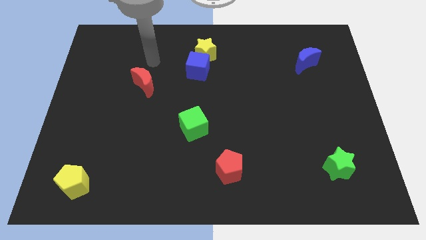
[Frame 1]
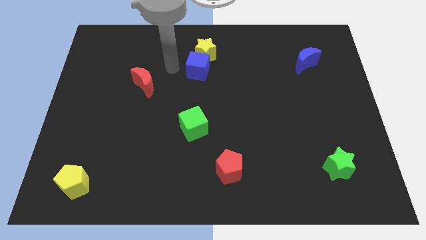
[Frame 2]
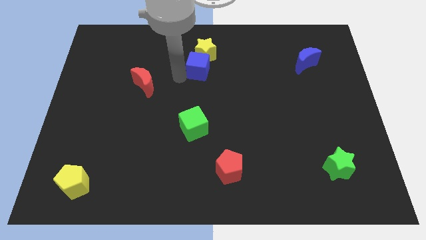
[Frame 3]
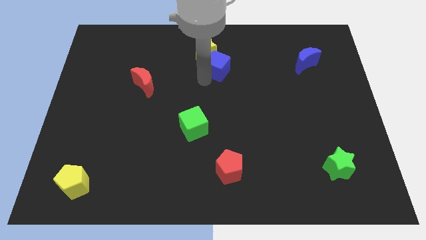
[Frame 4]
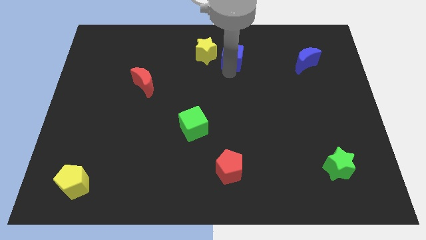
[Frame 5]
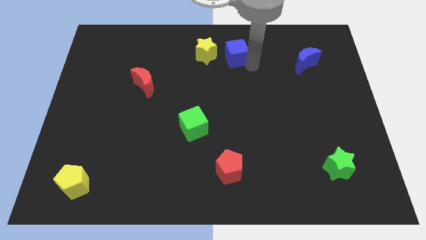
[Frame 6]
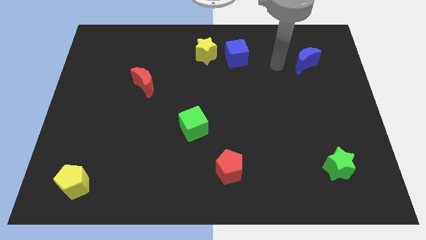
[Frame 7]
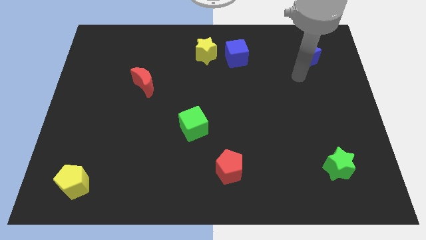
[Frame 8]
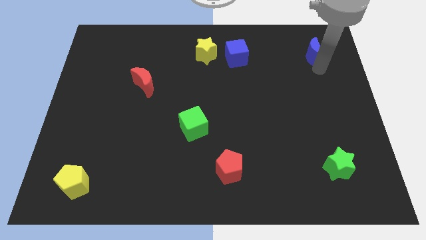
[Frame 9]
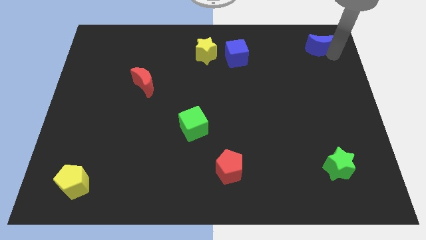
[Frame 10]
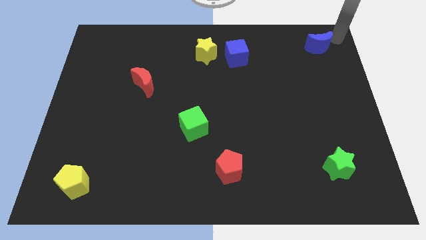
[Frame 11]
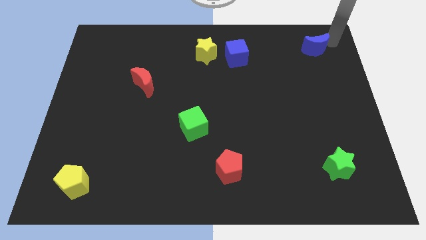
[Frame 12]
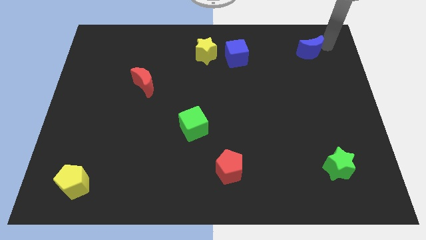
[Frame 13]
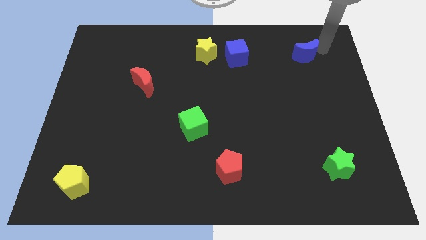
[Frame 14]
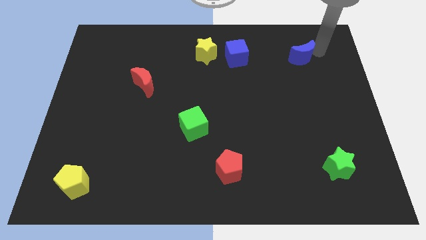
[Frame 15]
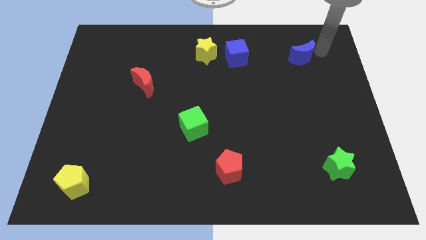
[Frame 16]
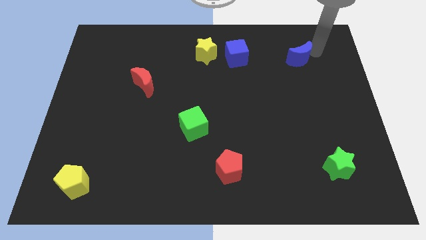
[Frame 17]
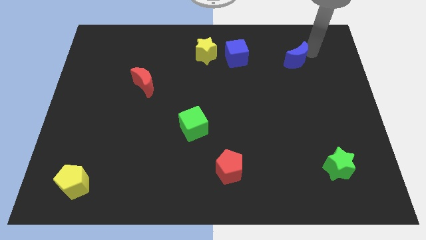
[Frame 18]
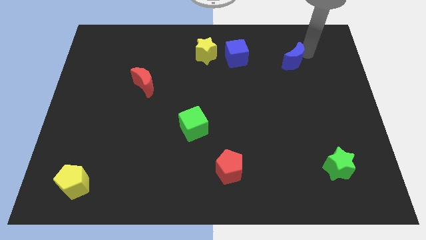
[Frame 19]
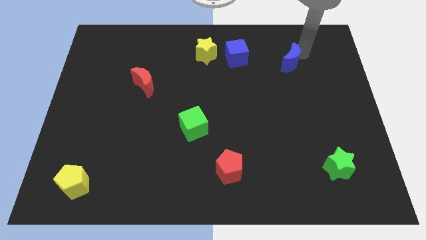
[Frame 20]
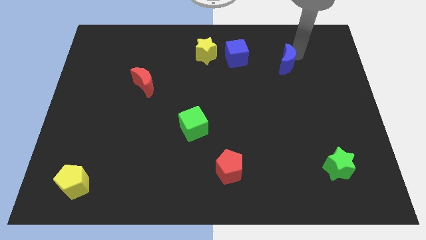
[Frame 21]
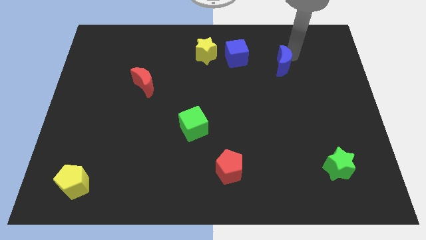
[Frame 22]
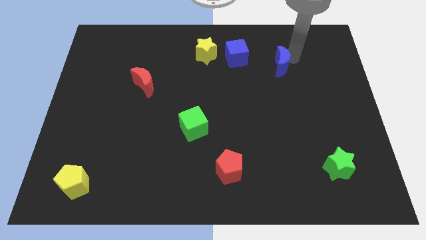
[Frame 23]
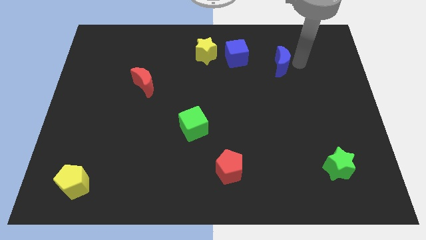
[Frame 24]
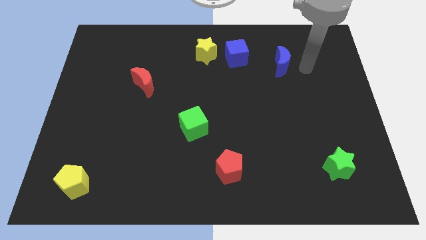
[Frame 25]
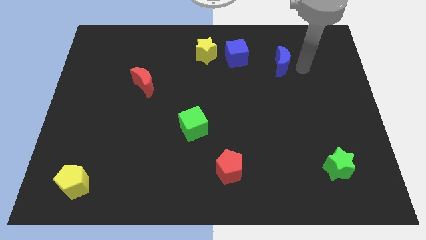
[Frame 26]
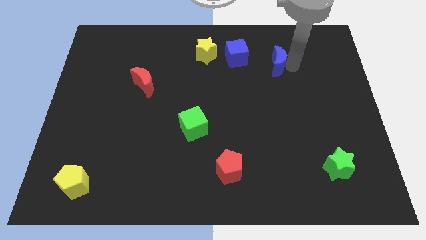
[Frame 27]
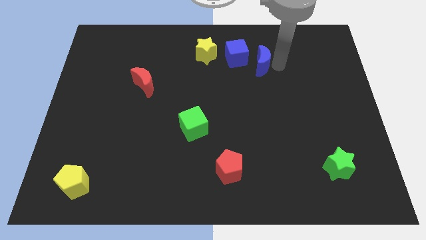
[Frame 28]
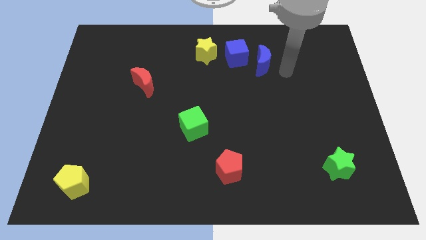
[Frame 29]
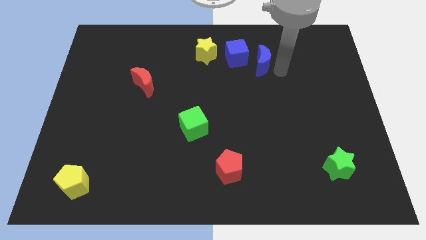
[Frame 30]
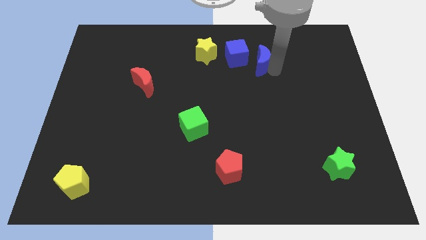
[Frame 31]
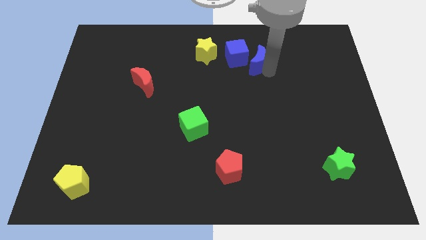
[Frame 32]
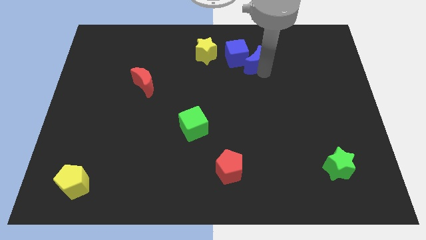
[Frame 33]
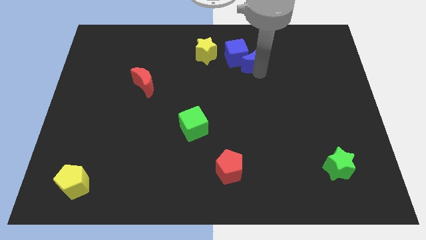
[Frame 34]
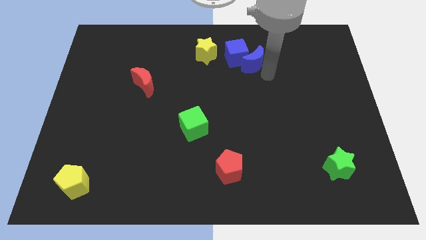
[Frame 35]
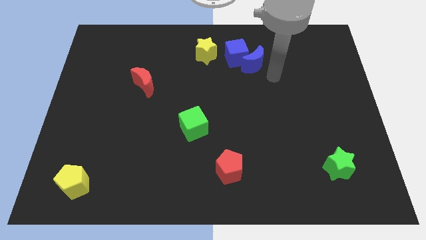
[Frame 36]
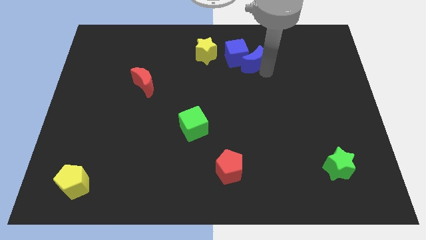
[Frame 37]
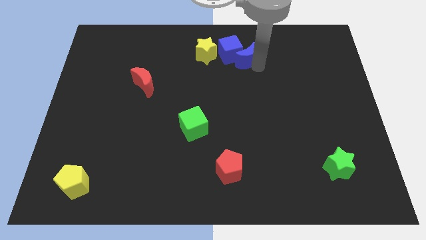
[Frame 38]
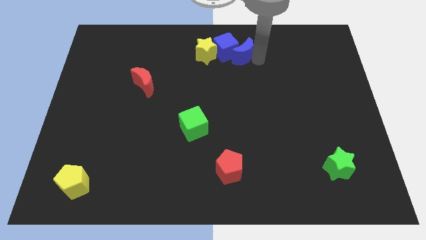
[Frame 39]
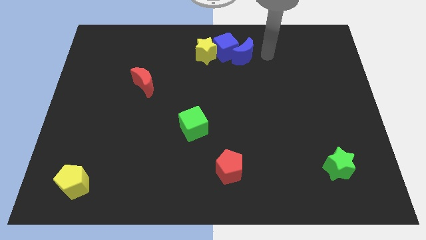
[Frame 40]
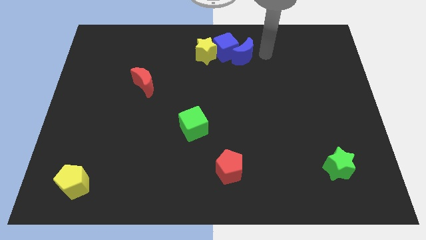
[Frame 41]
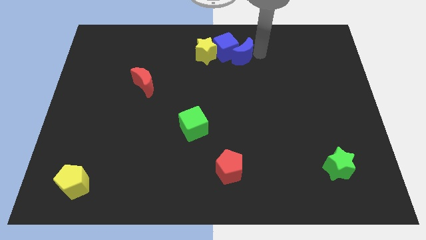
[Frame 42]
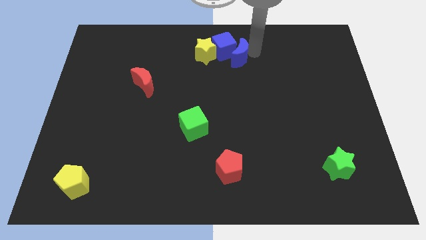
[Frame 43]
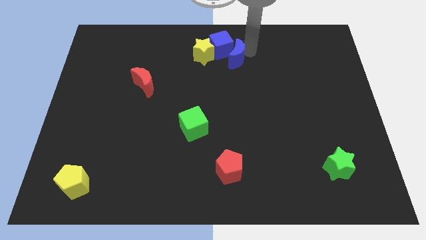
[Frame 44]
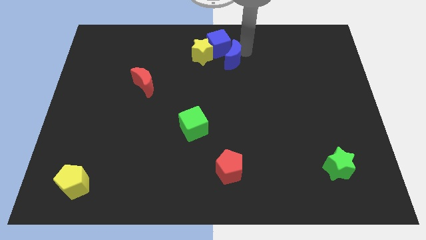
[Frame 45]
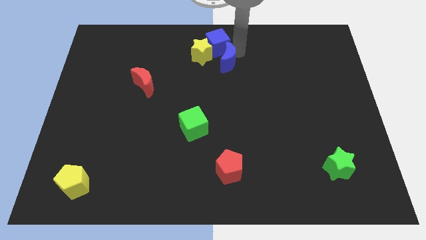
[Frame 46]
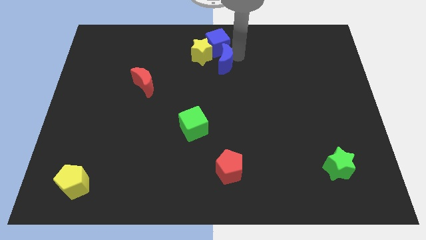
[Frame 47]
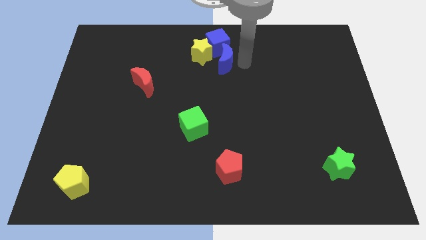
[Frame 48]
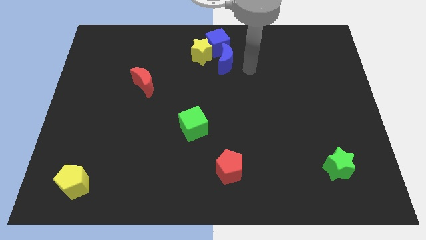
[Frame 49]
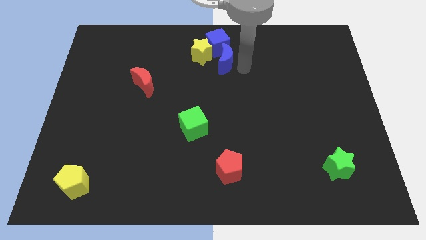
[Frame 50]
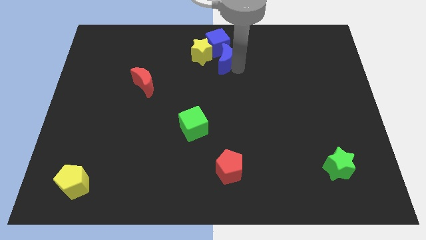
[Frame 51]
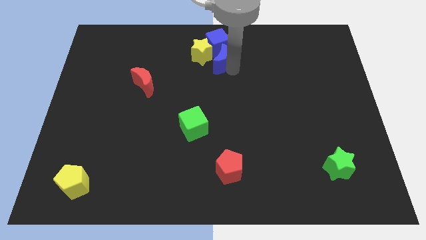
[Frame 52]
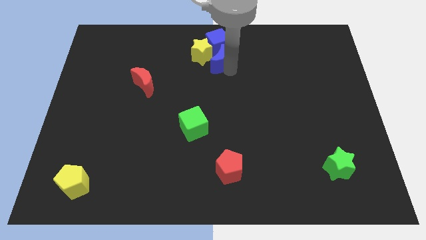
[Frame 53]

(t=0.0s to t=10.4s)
slide the blue moon to the yellow star

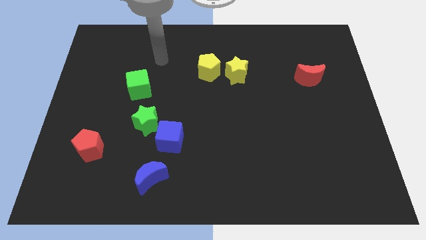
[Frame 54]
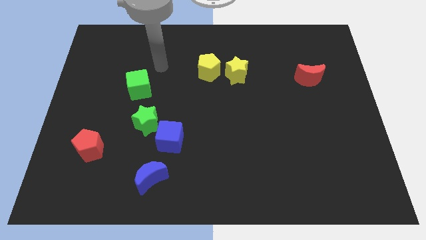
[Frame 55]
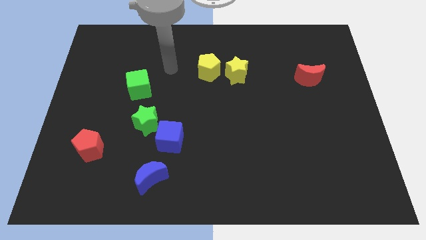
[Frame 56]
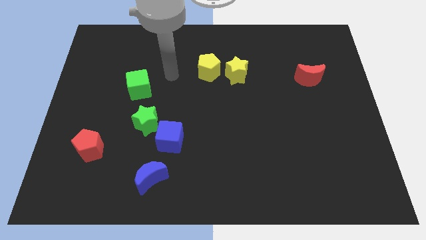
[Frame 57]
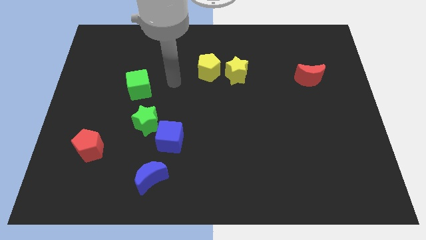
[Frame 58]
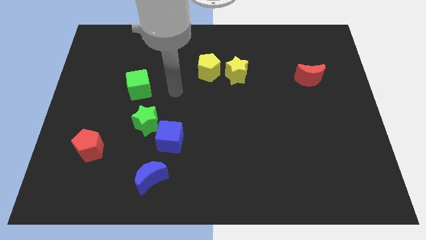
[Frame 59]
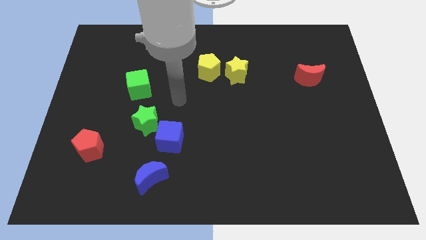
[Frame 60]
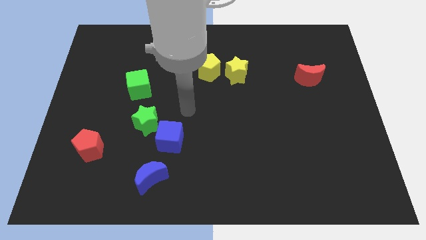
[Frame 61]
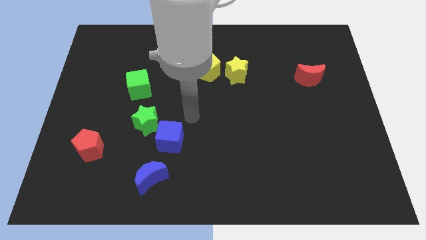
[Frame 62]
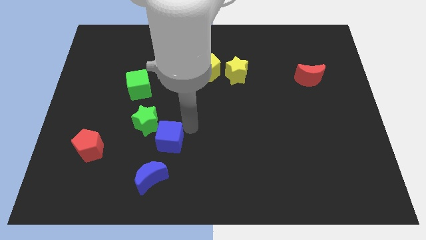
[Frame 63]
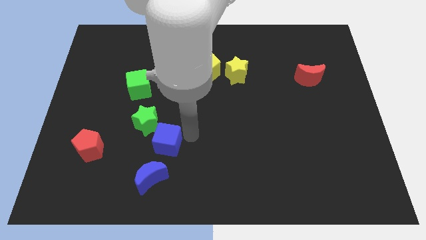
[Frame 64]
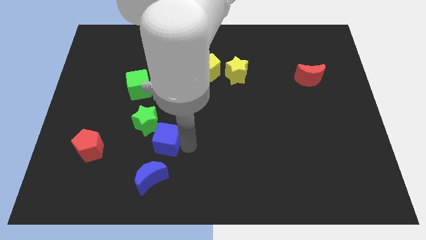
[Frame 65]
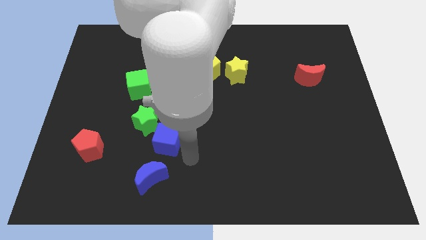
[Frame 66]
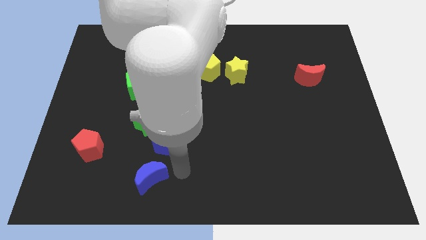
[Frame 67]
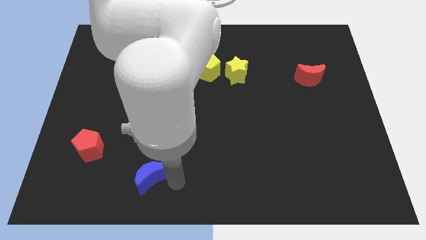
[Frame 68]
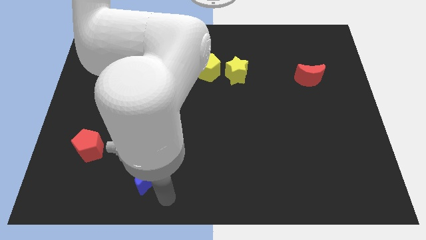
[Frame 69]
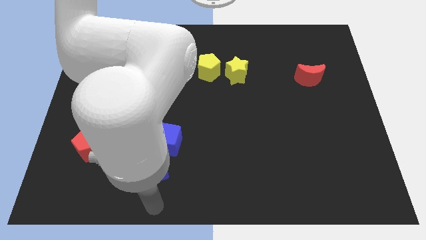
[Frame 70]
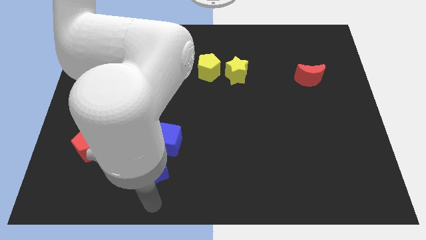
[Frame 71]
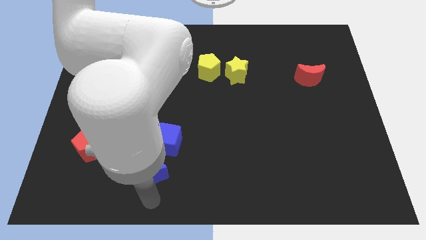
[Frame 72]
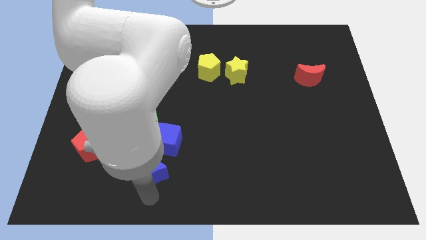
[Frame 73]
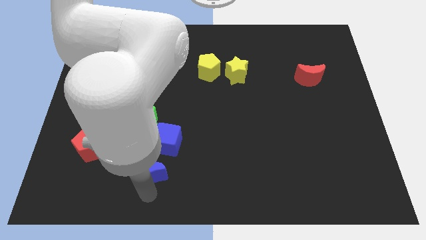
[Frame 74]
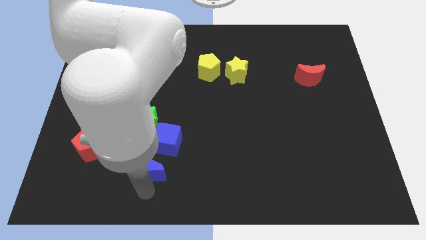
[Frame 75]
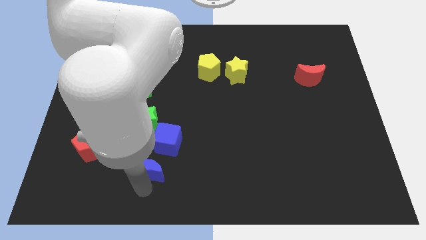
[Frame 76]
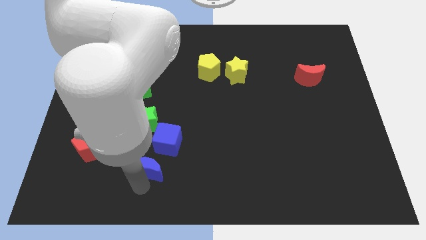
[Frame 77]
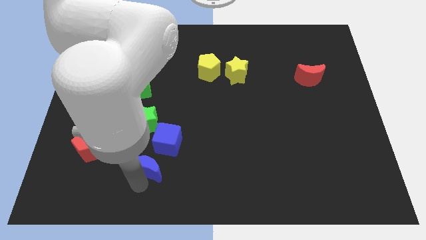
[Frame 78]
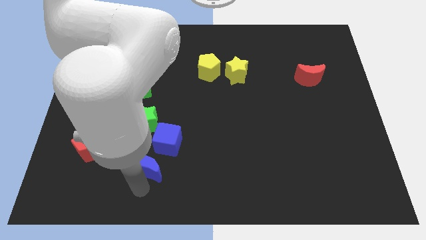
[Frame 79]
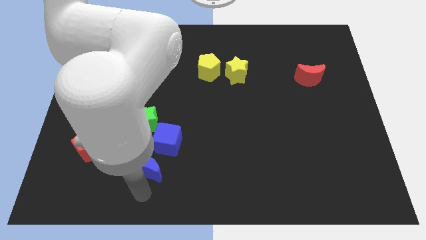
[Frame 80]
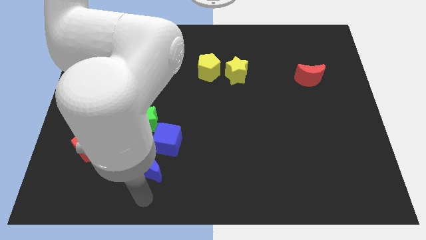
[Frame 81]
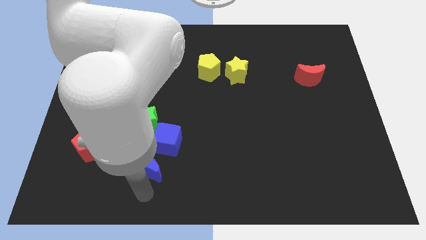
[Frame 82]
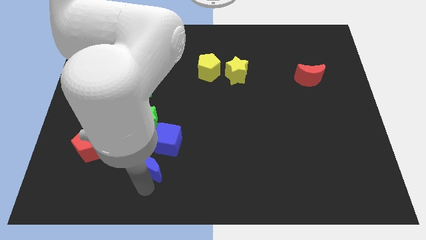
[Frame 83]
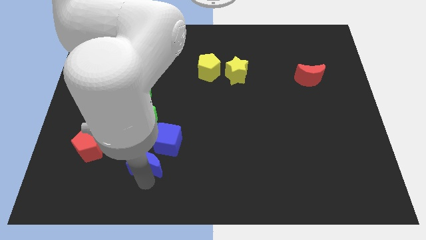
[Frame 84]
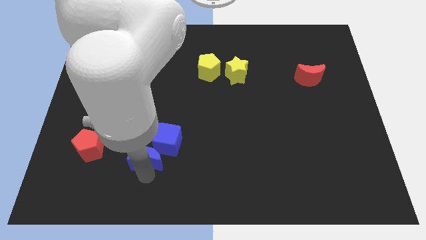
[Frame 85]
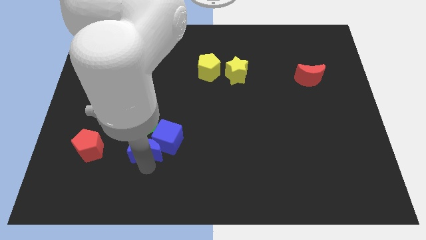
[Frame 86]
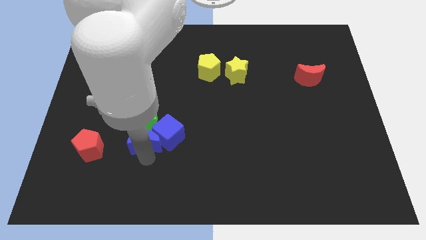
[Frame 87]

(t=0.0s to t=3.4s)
push the blue moon next to the green star
